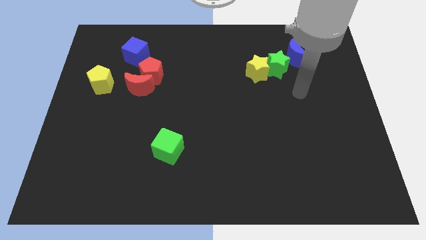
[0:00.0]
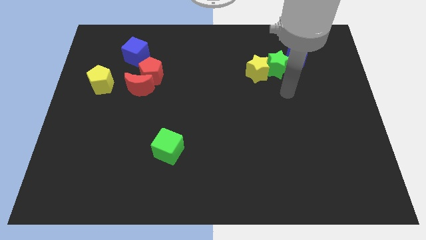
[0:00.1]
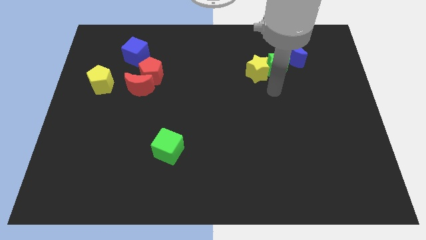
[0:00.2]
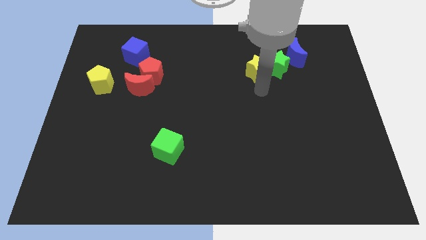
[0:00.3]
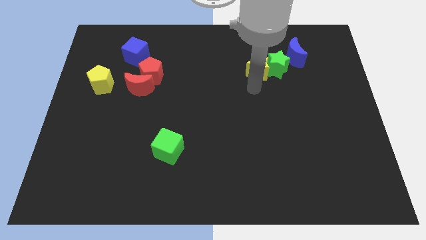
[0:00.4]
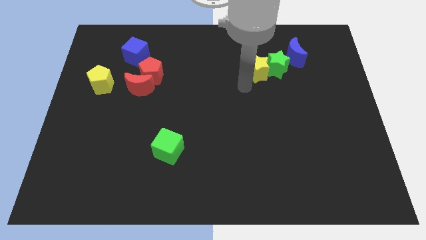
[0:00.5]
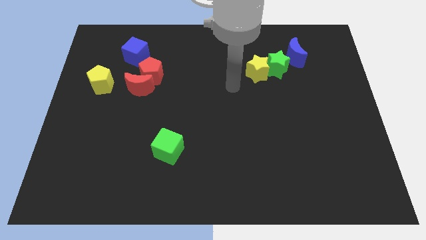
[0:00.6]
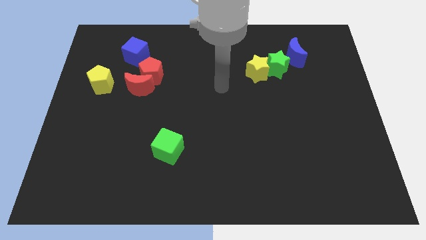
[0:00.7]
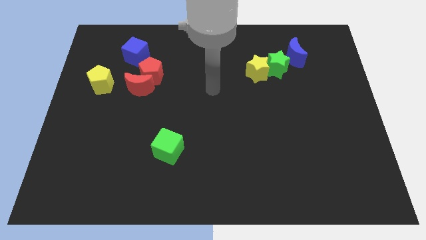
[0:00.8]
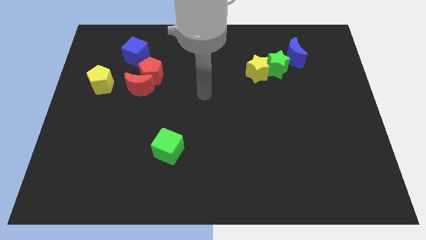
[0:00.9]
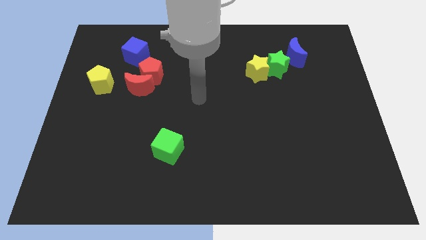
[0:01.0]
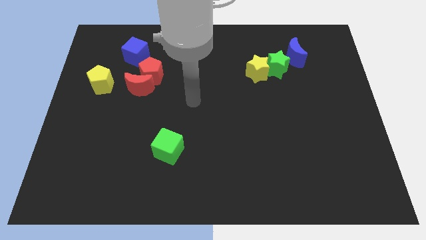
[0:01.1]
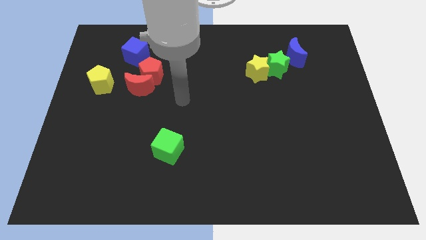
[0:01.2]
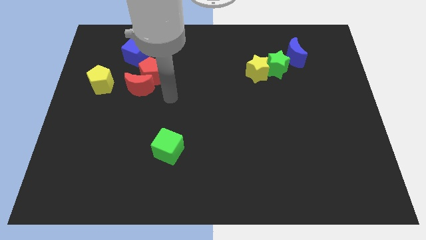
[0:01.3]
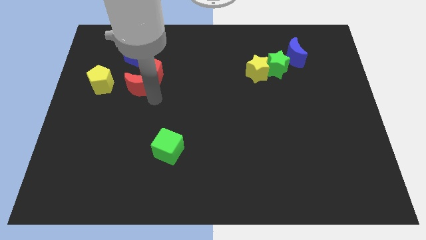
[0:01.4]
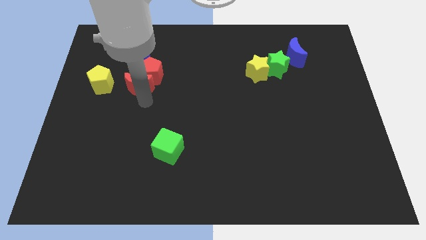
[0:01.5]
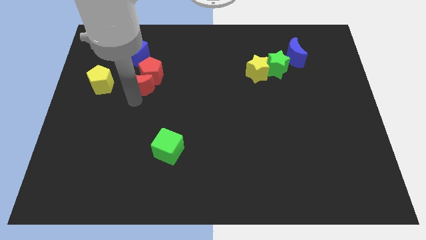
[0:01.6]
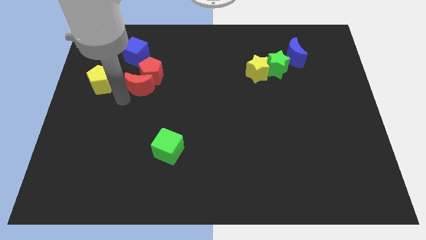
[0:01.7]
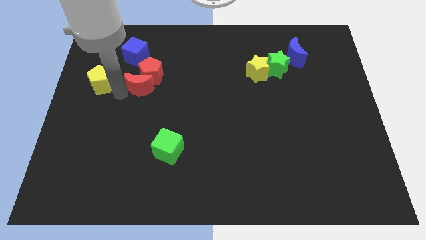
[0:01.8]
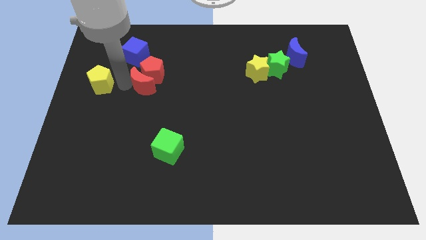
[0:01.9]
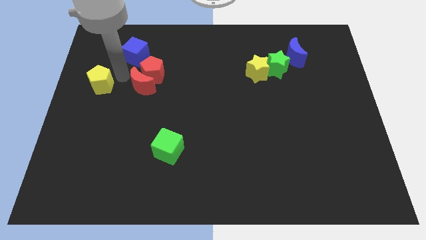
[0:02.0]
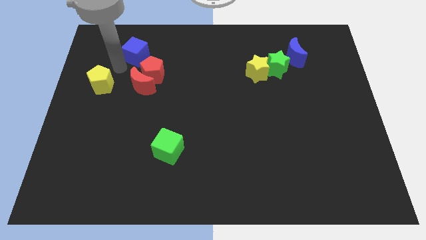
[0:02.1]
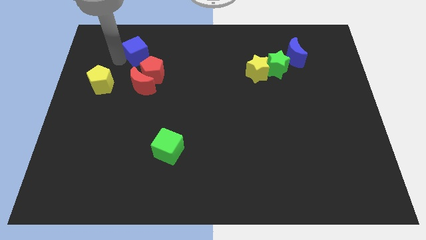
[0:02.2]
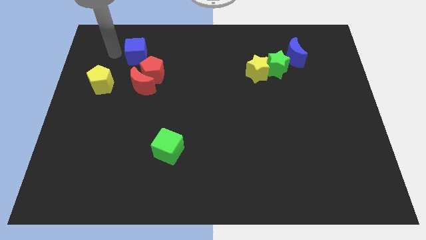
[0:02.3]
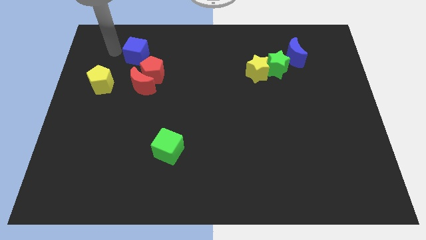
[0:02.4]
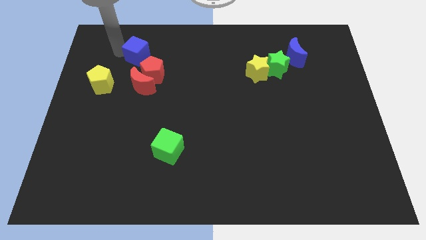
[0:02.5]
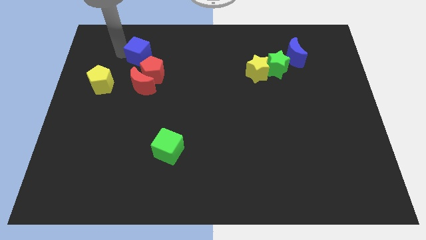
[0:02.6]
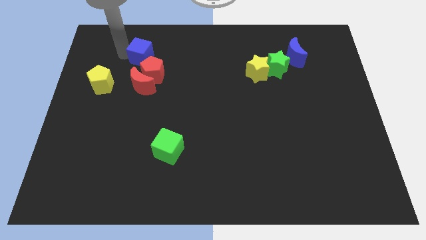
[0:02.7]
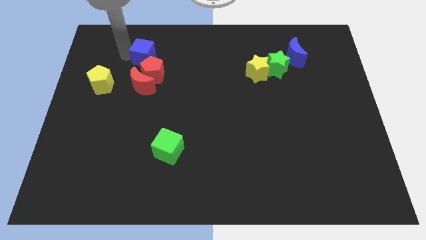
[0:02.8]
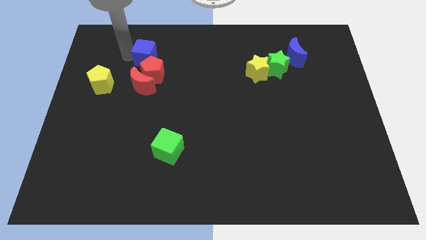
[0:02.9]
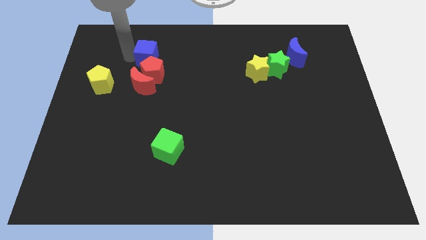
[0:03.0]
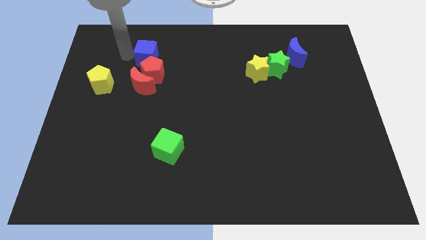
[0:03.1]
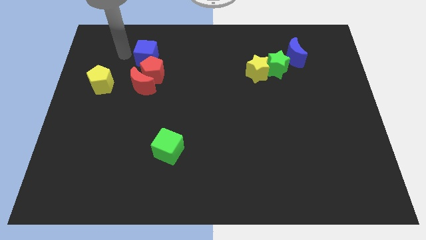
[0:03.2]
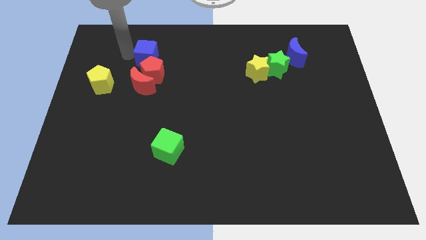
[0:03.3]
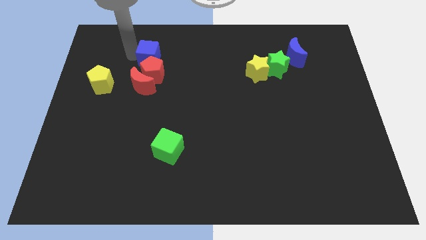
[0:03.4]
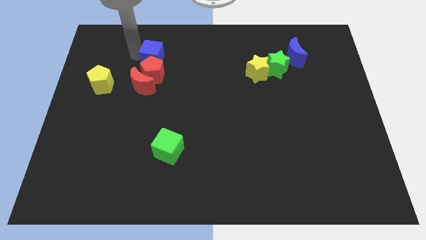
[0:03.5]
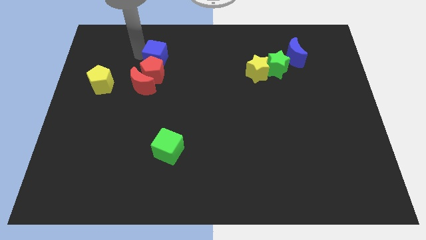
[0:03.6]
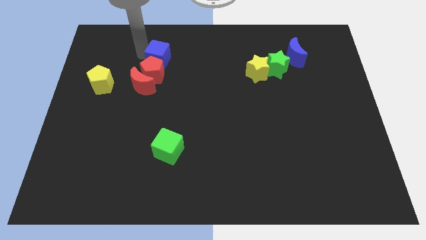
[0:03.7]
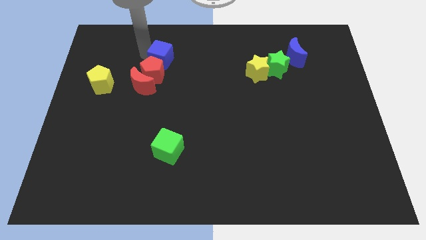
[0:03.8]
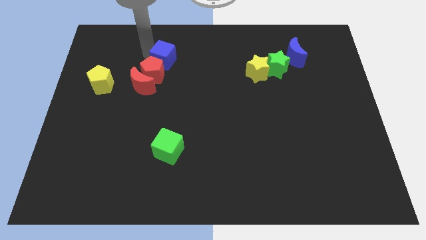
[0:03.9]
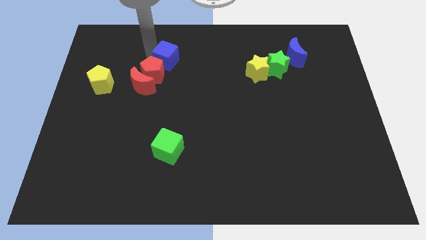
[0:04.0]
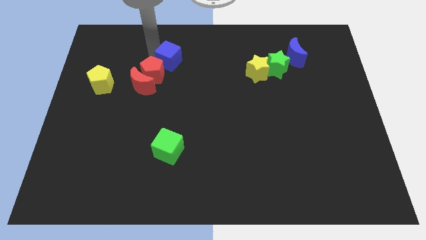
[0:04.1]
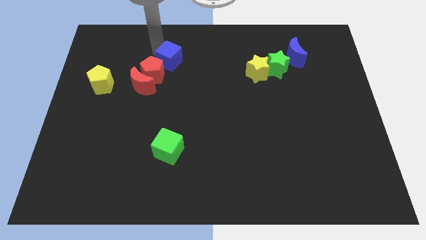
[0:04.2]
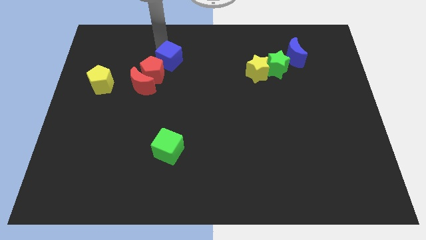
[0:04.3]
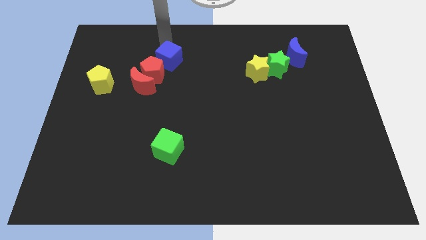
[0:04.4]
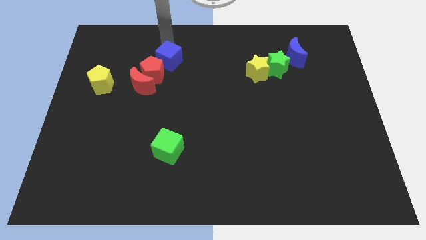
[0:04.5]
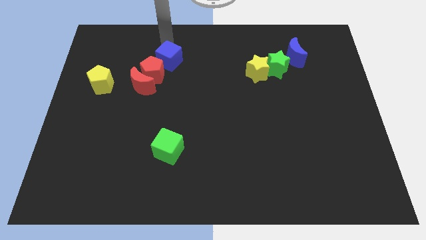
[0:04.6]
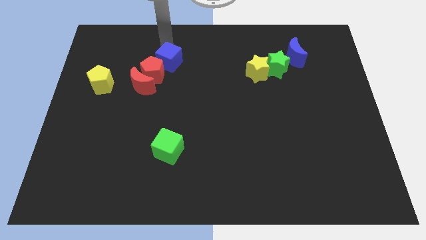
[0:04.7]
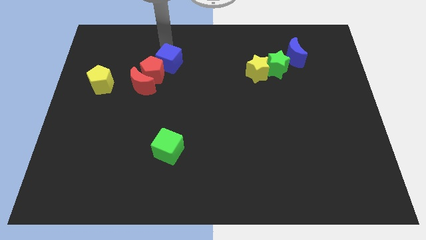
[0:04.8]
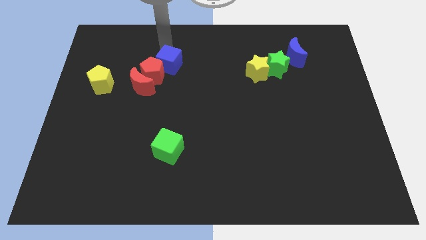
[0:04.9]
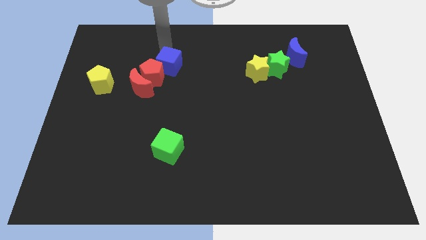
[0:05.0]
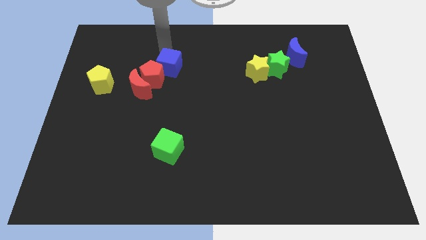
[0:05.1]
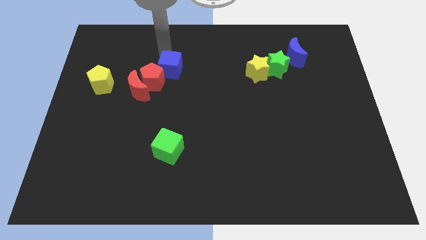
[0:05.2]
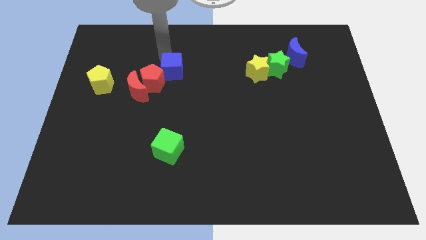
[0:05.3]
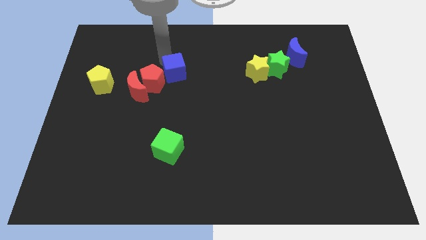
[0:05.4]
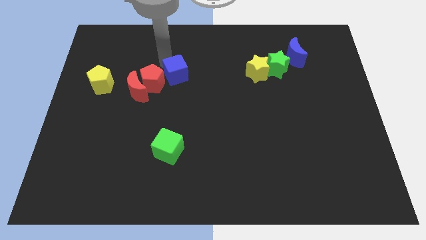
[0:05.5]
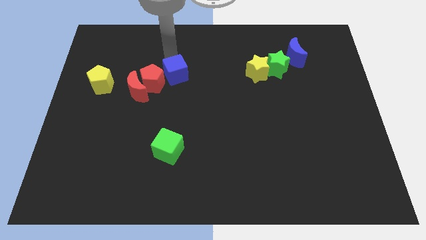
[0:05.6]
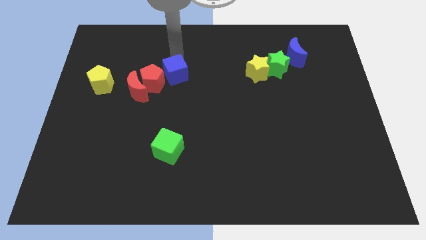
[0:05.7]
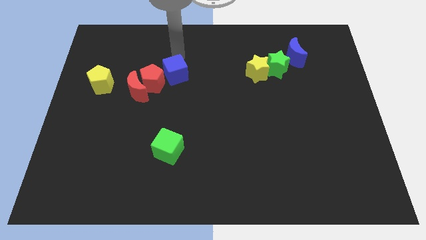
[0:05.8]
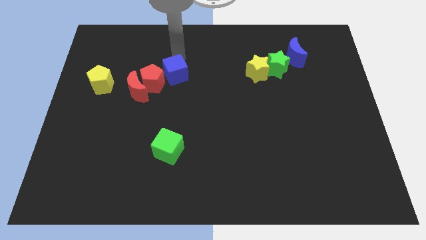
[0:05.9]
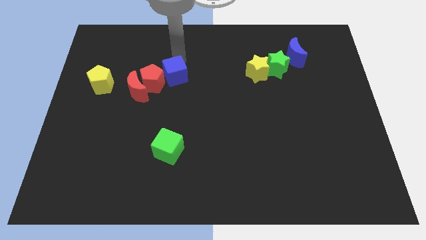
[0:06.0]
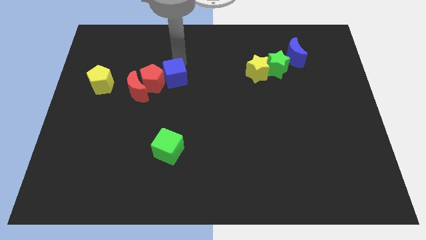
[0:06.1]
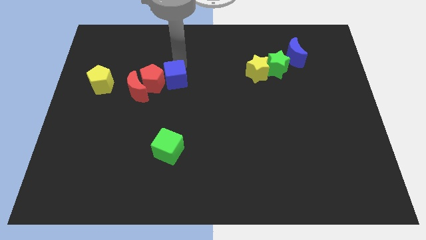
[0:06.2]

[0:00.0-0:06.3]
move the blue cube diagonally down and to the right of the red pentagon

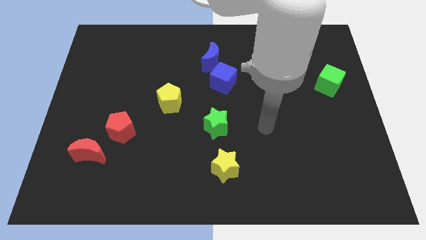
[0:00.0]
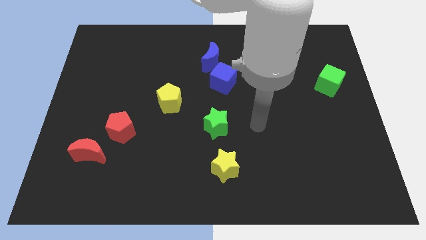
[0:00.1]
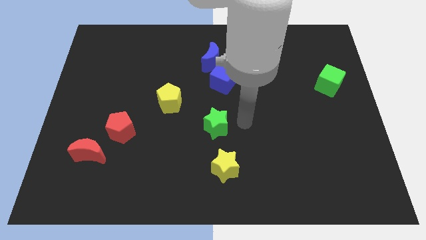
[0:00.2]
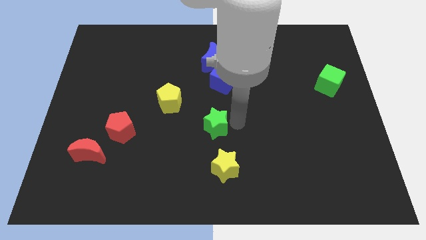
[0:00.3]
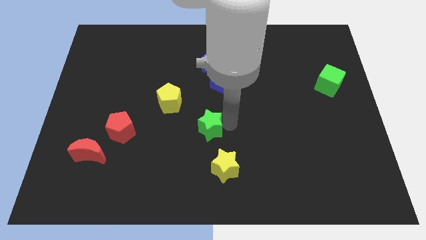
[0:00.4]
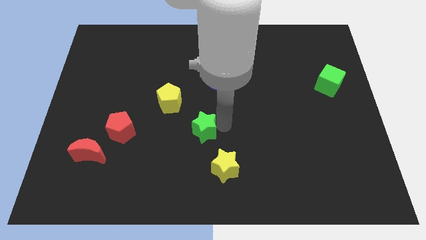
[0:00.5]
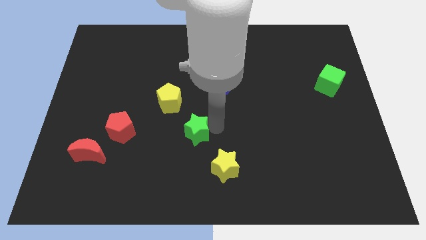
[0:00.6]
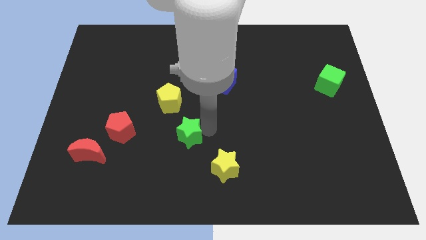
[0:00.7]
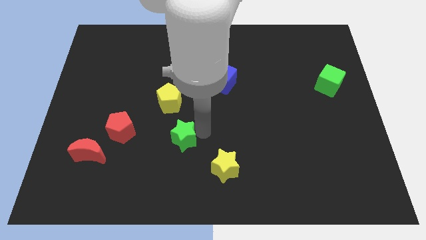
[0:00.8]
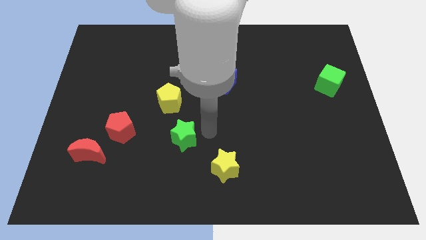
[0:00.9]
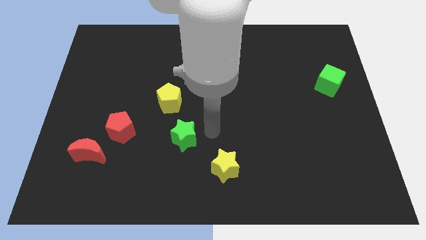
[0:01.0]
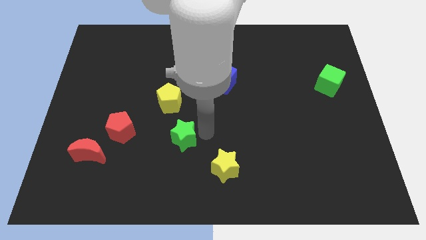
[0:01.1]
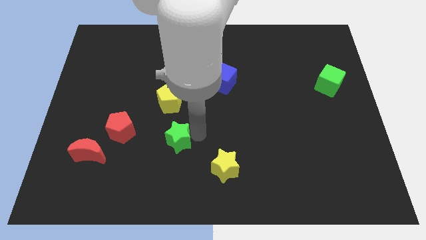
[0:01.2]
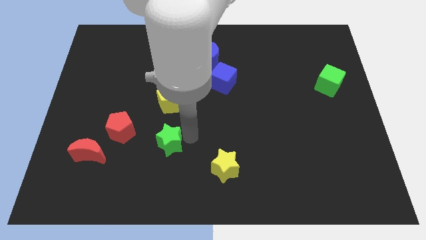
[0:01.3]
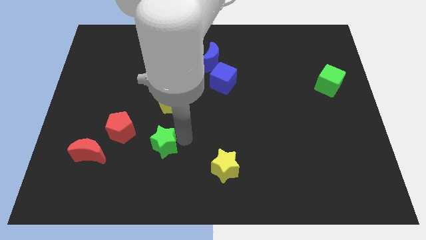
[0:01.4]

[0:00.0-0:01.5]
push the green star just right of the red moon
